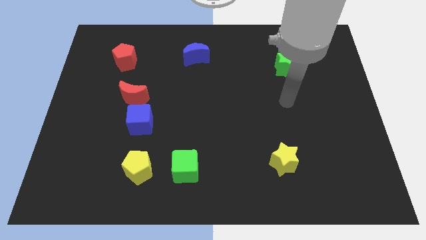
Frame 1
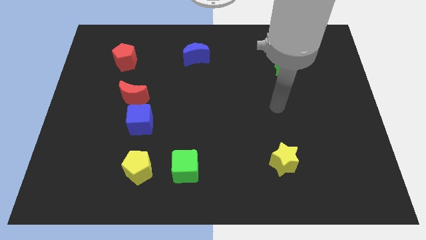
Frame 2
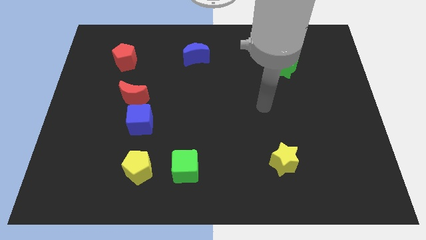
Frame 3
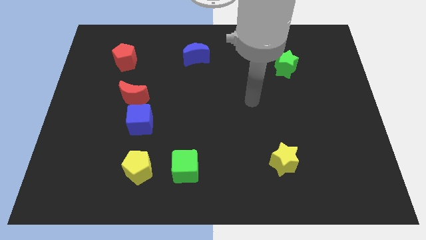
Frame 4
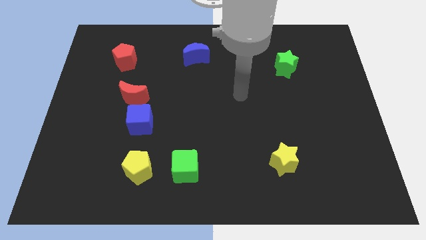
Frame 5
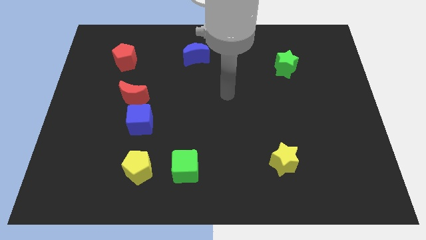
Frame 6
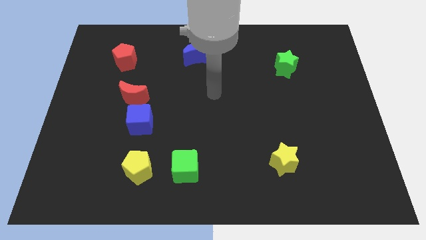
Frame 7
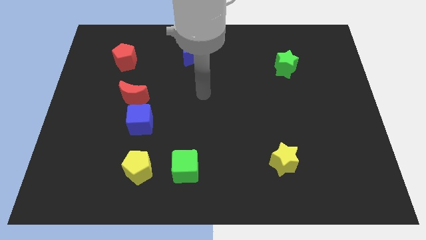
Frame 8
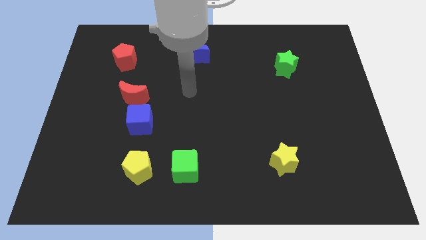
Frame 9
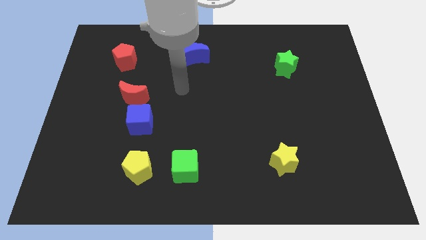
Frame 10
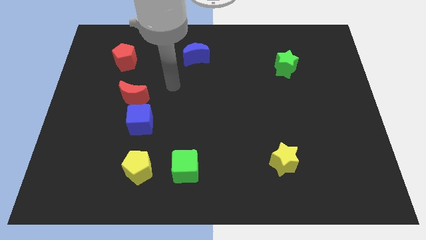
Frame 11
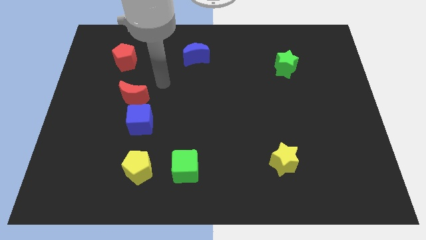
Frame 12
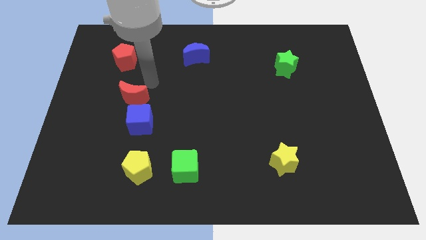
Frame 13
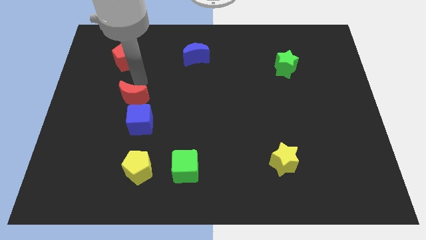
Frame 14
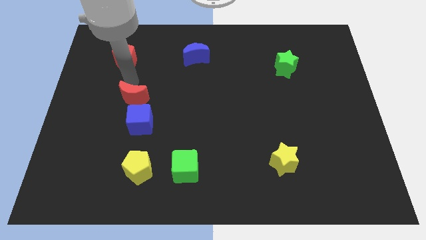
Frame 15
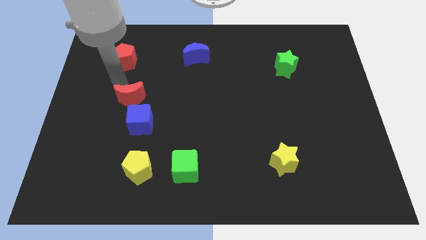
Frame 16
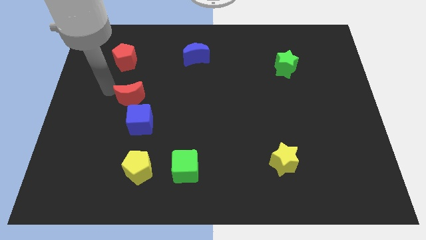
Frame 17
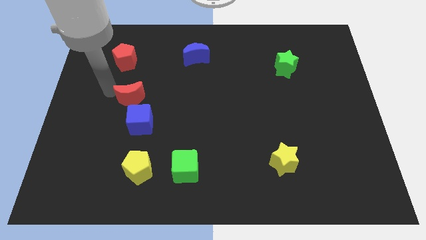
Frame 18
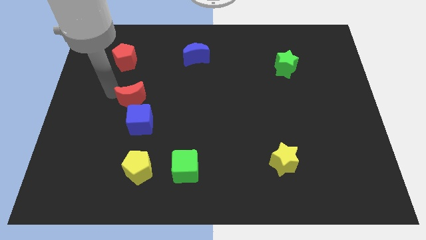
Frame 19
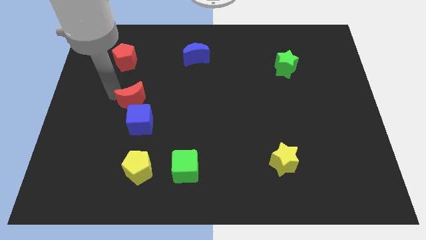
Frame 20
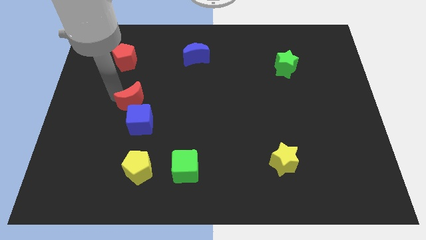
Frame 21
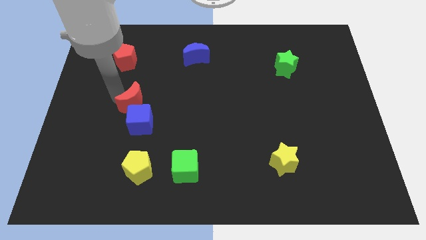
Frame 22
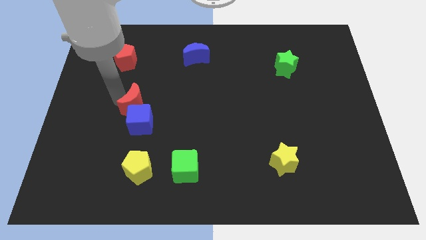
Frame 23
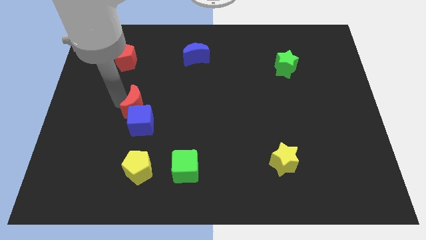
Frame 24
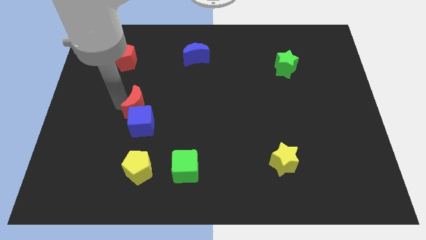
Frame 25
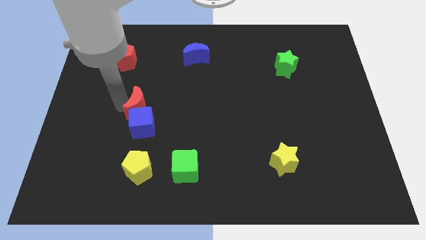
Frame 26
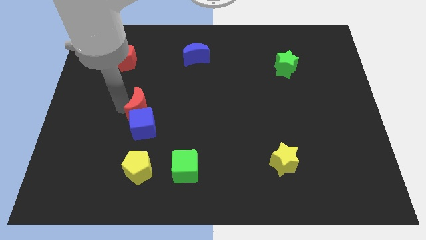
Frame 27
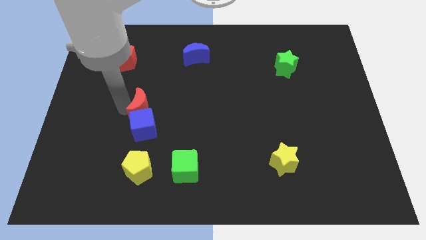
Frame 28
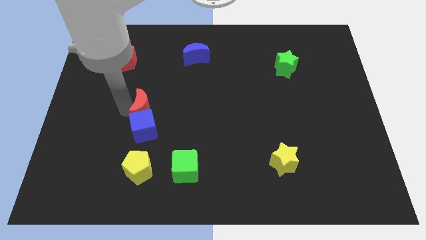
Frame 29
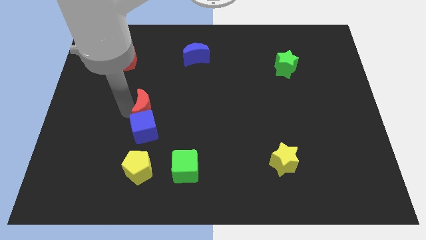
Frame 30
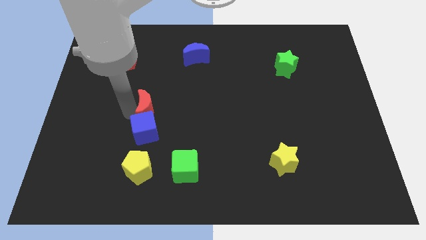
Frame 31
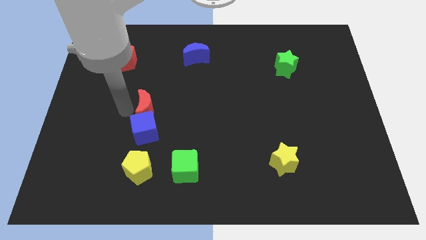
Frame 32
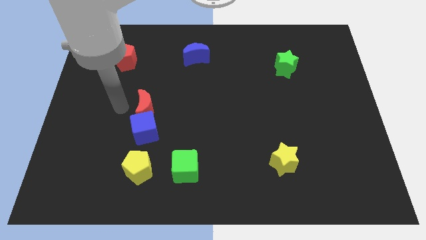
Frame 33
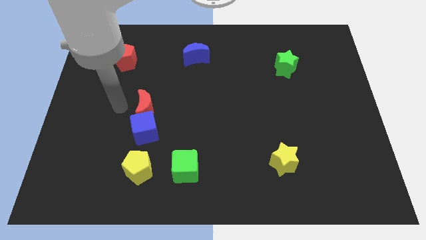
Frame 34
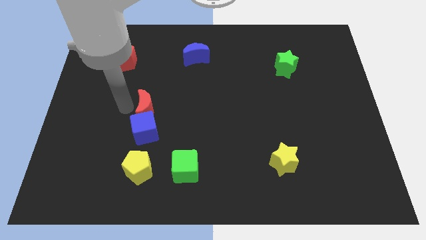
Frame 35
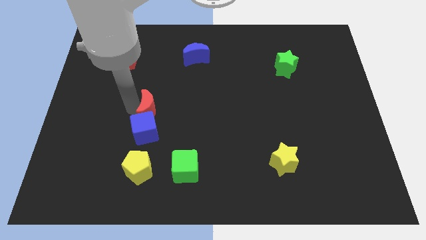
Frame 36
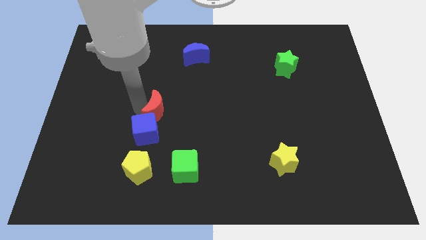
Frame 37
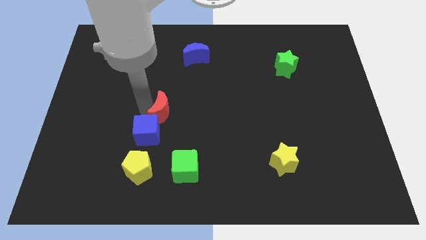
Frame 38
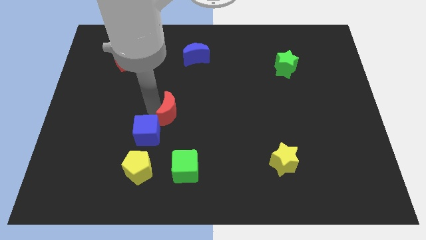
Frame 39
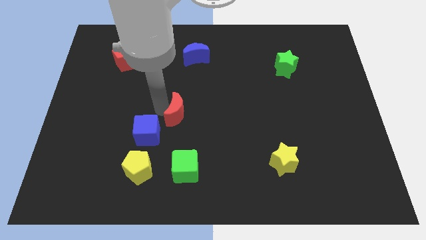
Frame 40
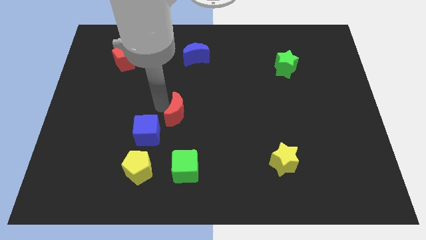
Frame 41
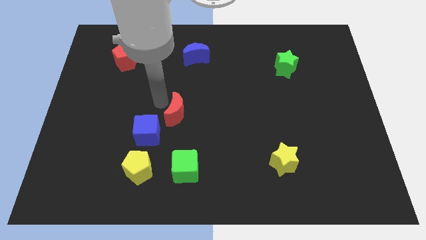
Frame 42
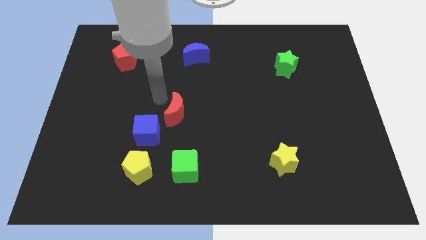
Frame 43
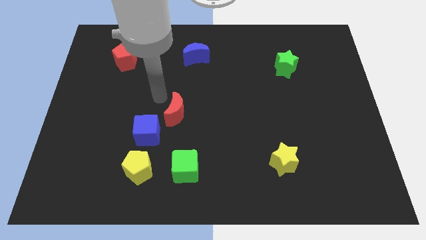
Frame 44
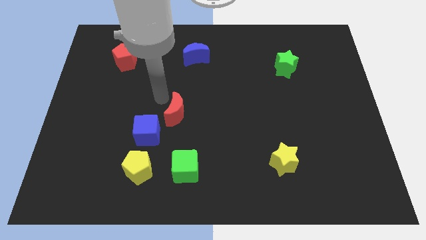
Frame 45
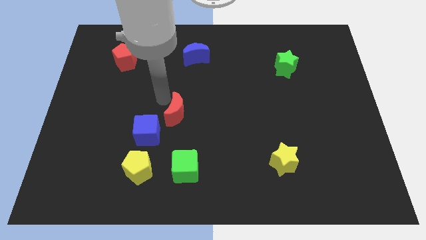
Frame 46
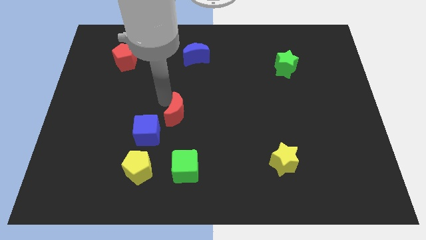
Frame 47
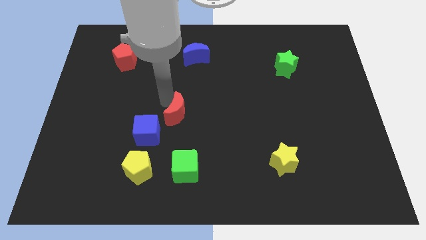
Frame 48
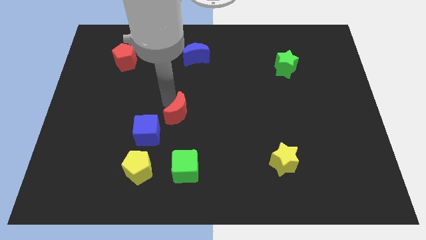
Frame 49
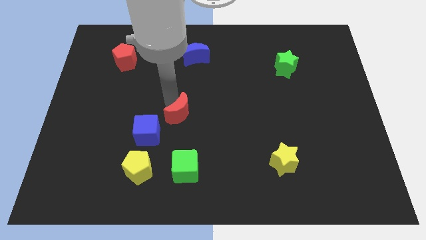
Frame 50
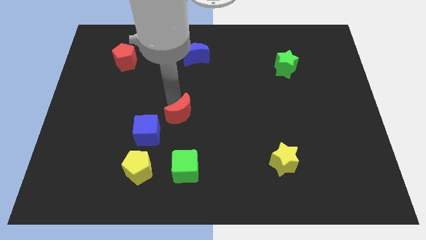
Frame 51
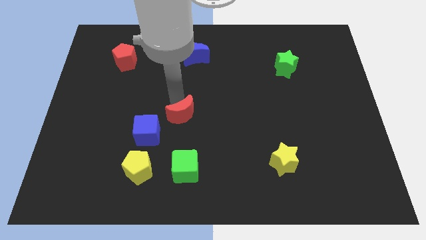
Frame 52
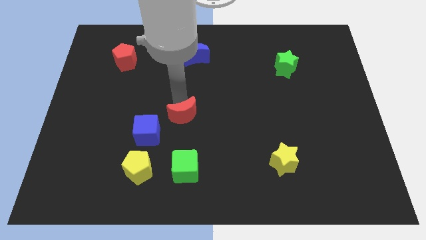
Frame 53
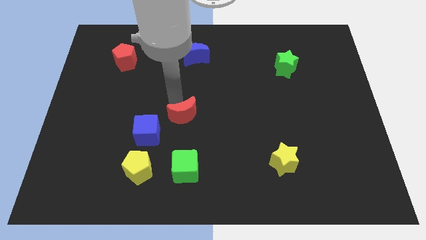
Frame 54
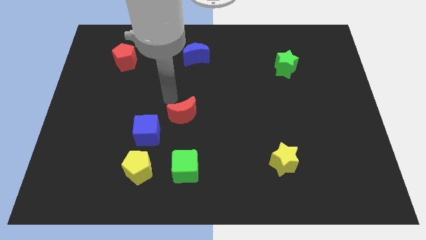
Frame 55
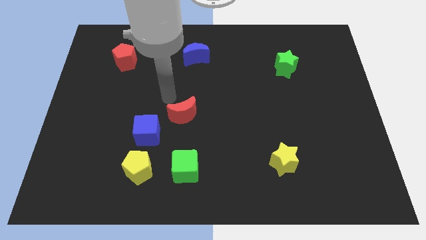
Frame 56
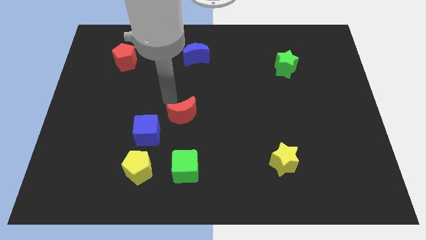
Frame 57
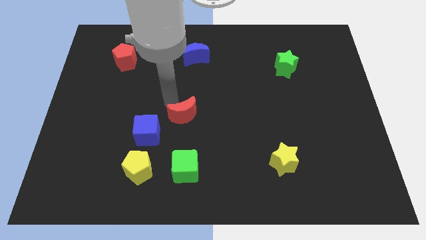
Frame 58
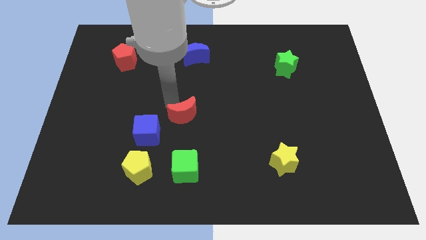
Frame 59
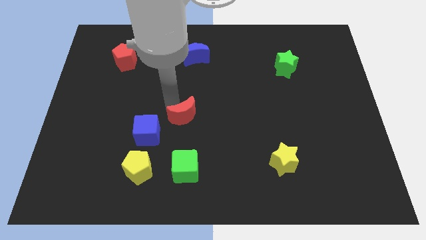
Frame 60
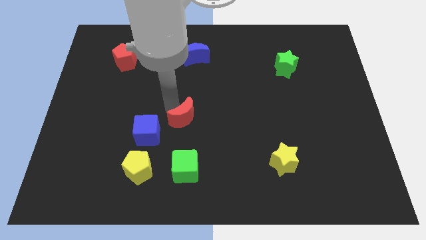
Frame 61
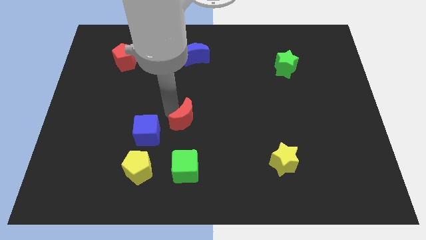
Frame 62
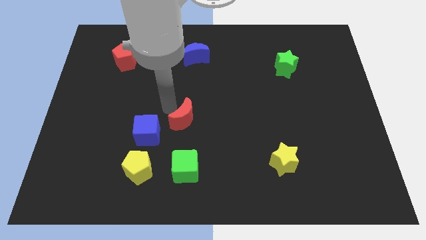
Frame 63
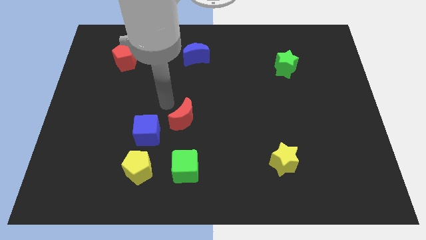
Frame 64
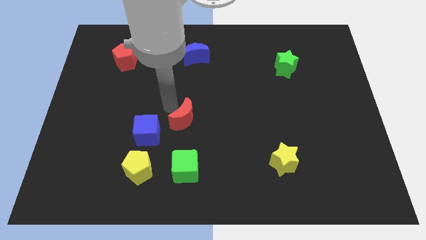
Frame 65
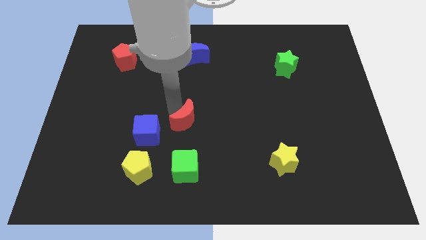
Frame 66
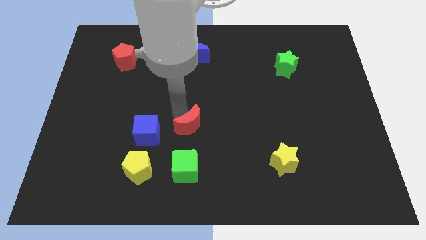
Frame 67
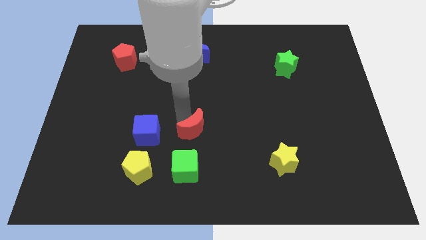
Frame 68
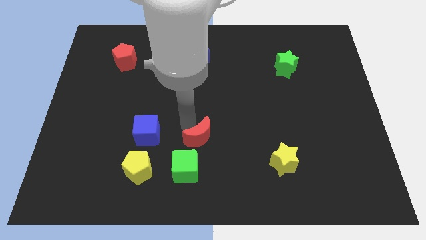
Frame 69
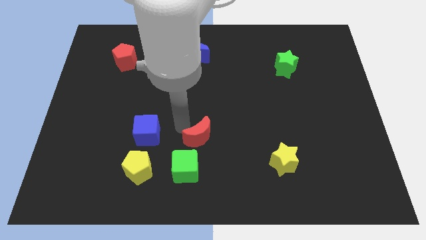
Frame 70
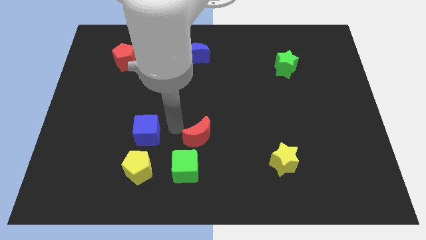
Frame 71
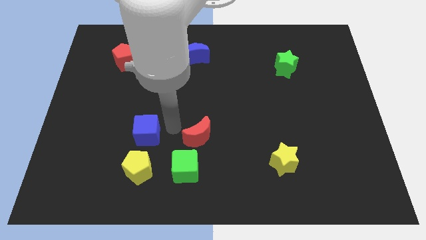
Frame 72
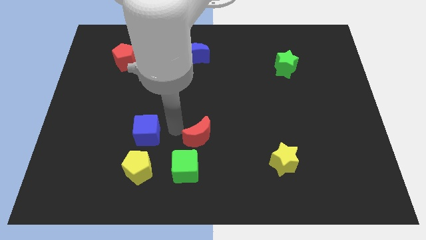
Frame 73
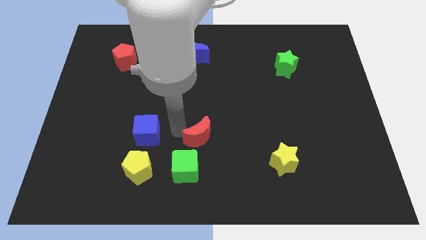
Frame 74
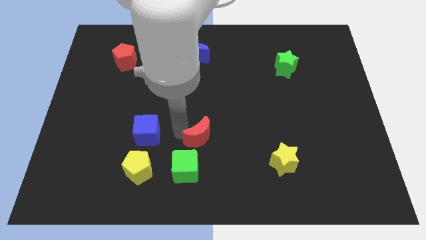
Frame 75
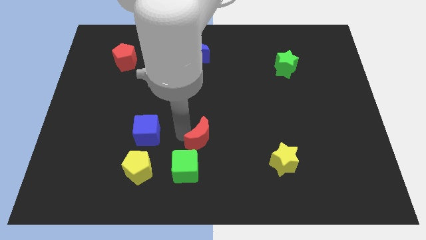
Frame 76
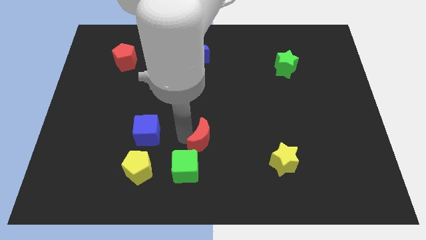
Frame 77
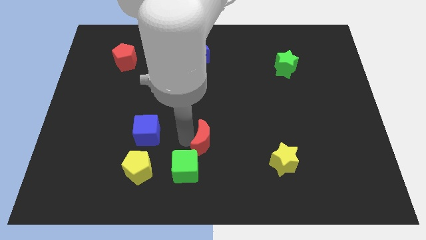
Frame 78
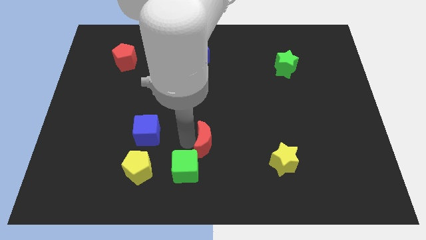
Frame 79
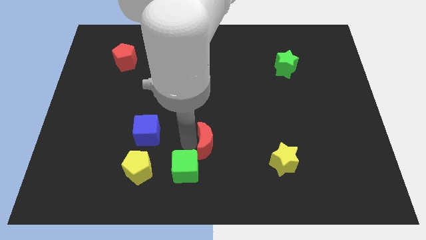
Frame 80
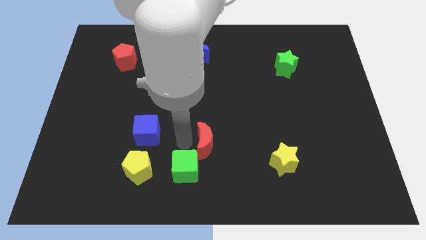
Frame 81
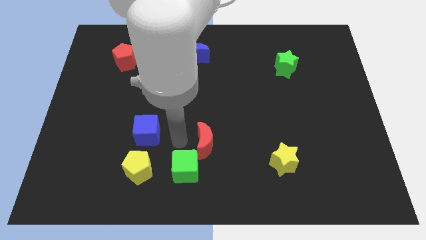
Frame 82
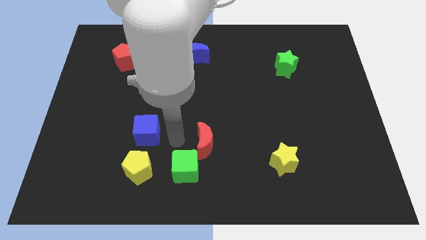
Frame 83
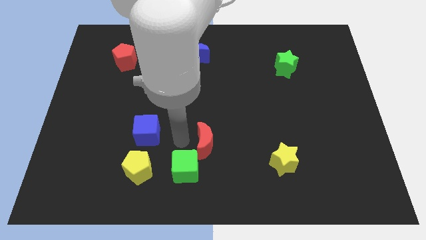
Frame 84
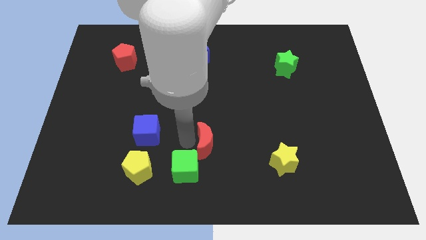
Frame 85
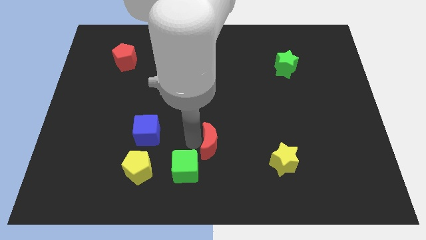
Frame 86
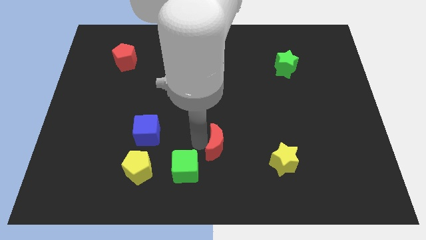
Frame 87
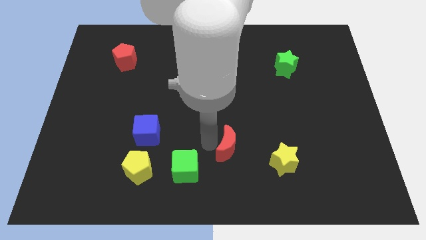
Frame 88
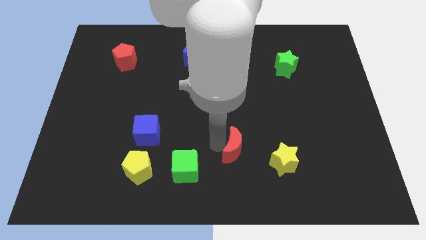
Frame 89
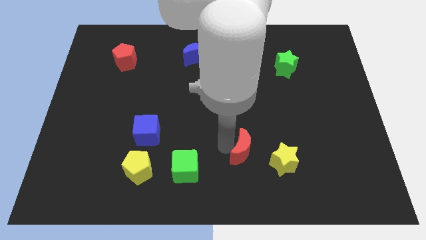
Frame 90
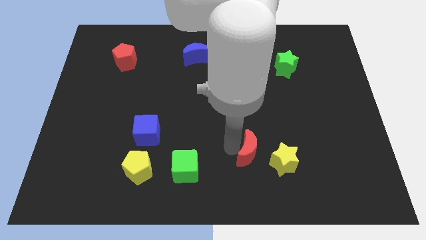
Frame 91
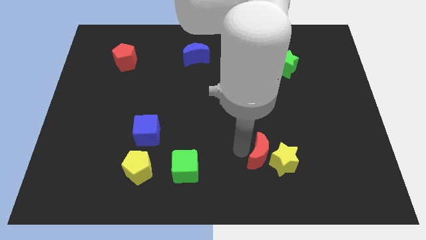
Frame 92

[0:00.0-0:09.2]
push the red moon next to the yellow star
